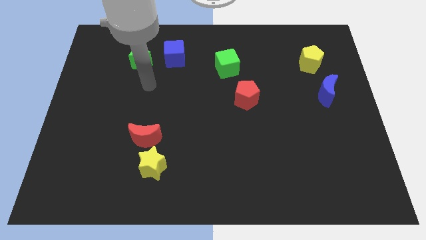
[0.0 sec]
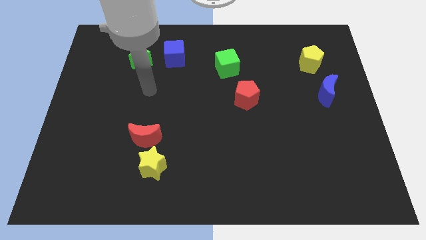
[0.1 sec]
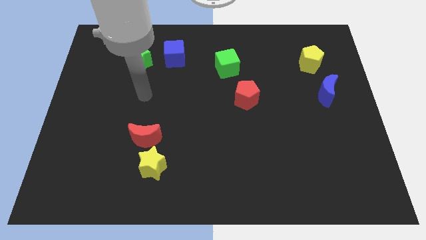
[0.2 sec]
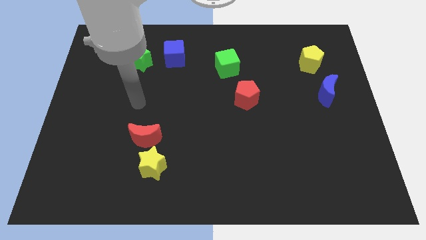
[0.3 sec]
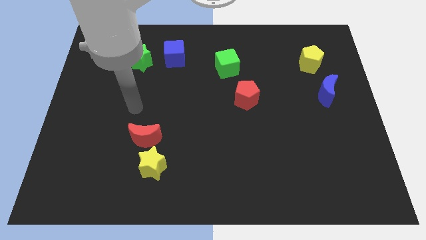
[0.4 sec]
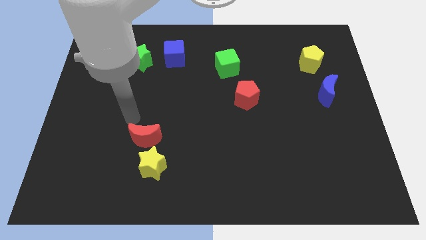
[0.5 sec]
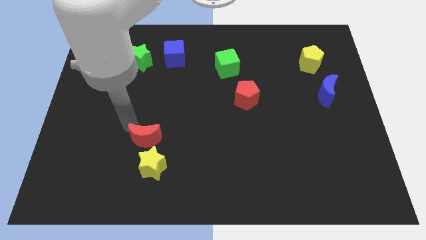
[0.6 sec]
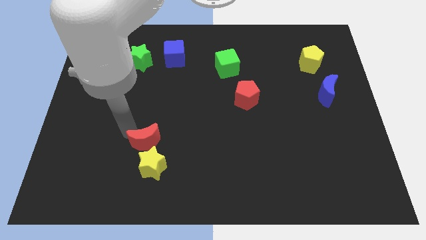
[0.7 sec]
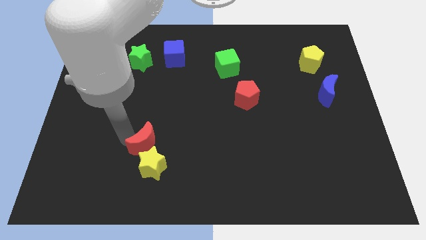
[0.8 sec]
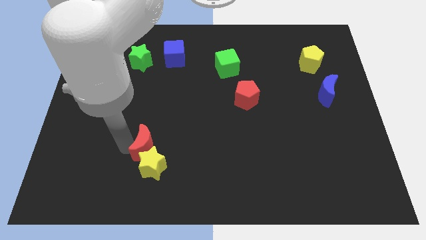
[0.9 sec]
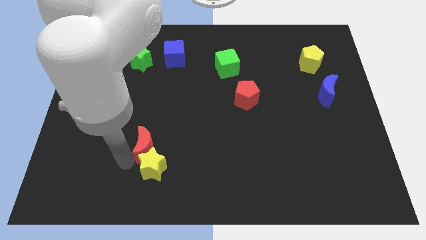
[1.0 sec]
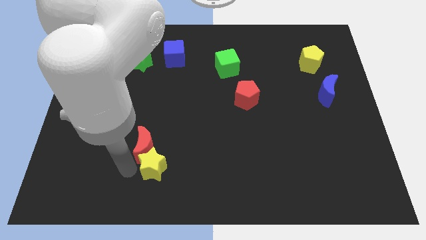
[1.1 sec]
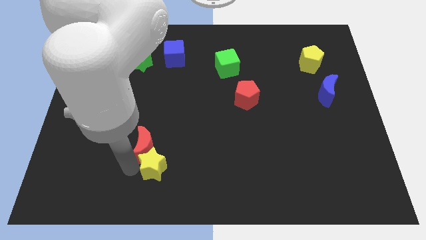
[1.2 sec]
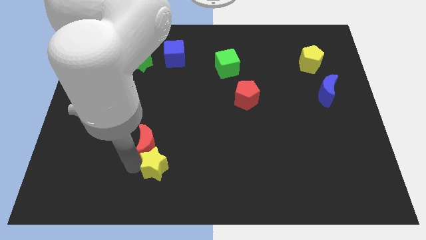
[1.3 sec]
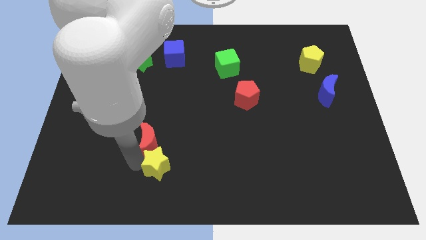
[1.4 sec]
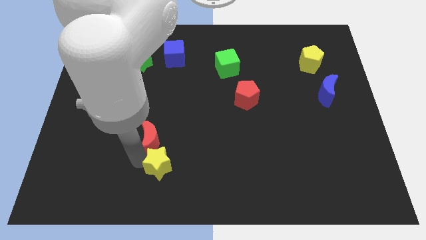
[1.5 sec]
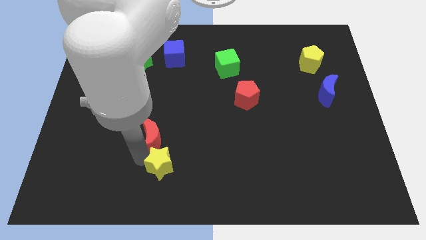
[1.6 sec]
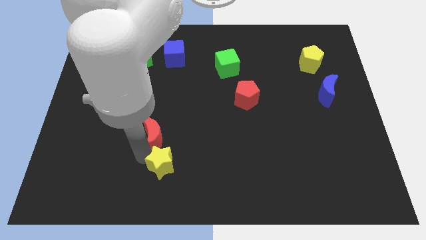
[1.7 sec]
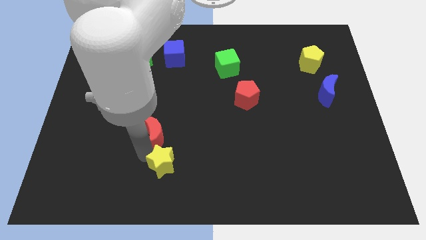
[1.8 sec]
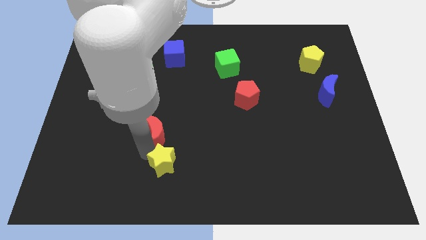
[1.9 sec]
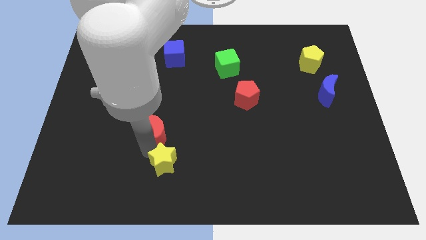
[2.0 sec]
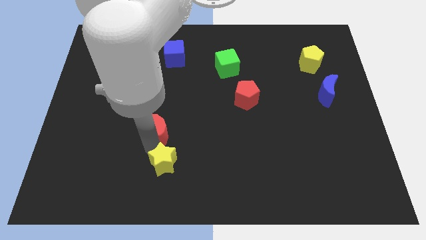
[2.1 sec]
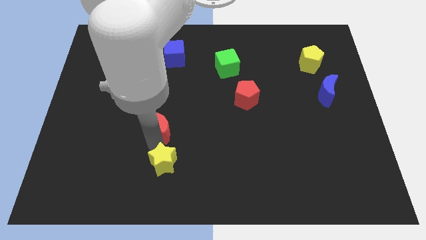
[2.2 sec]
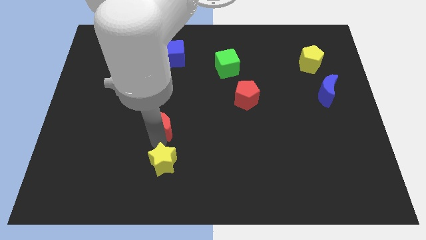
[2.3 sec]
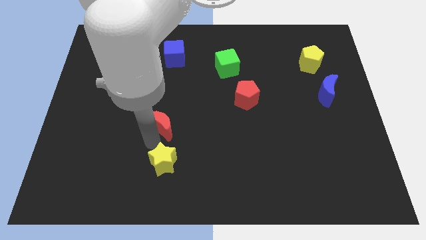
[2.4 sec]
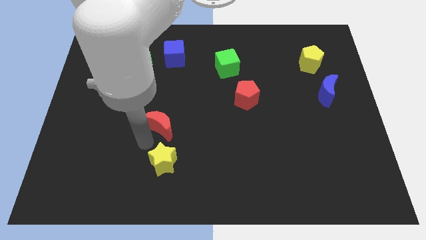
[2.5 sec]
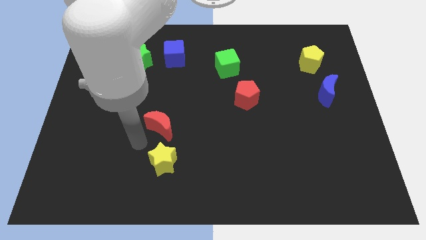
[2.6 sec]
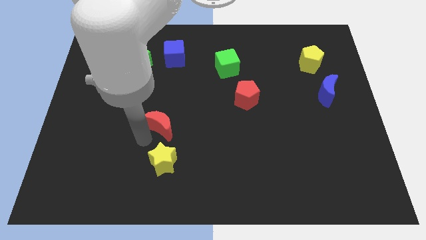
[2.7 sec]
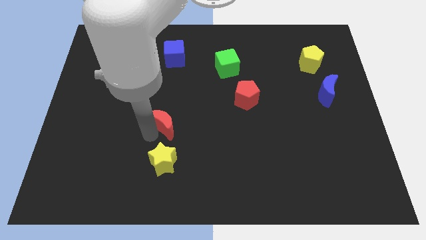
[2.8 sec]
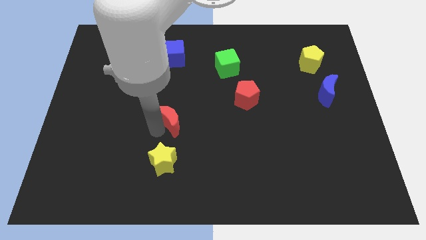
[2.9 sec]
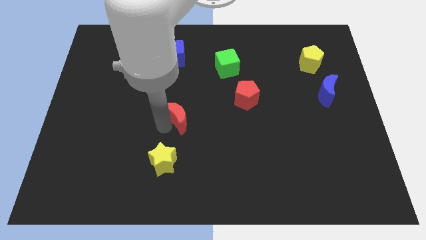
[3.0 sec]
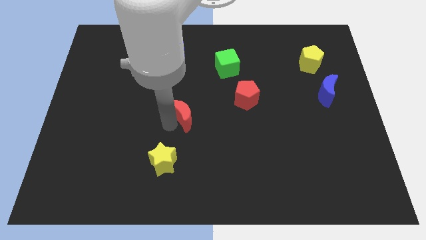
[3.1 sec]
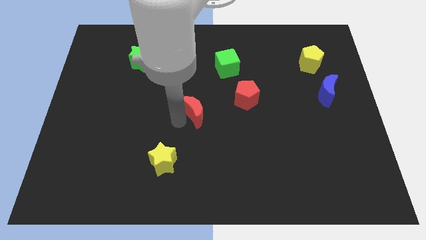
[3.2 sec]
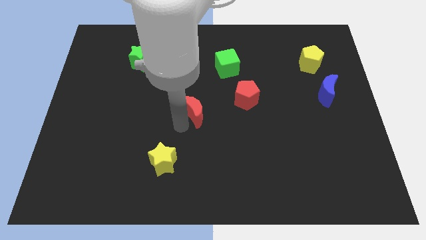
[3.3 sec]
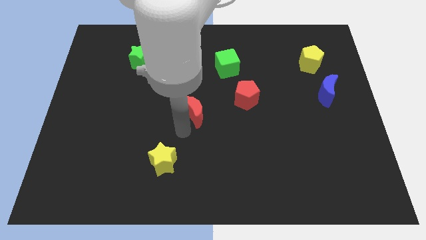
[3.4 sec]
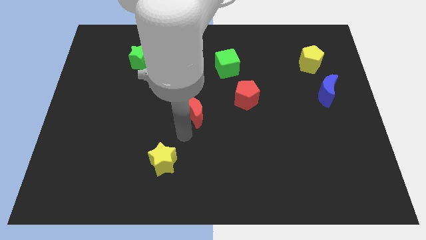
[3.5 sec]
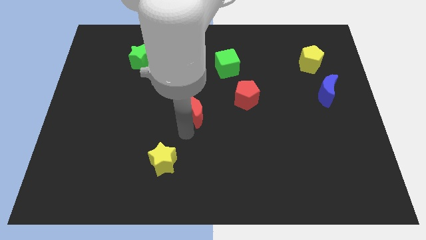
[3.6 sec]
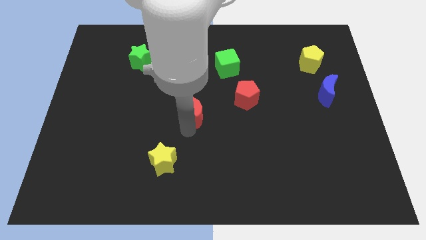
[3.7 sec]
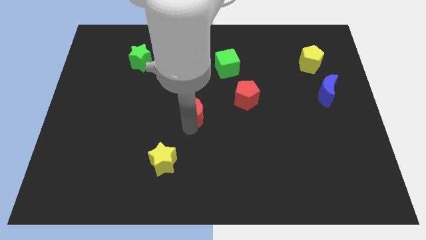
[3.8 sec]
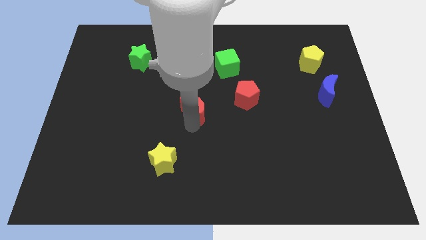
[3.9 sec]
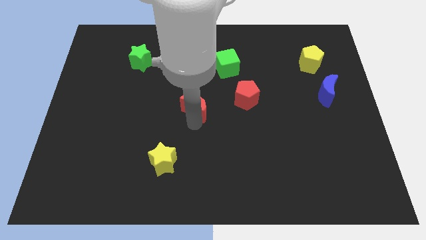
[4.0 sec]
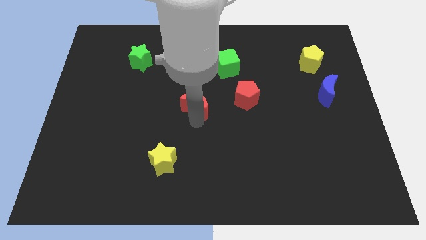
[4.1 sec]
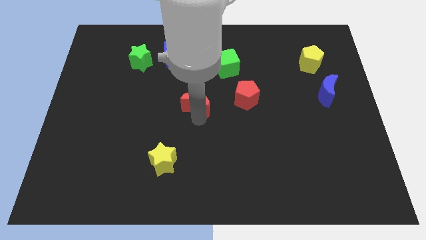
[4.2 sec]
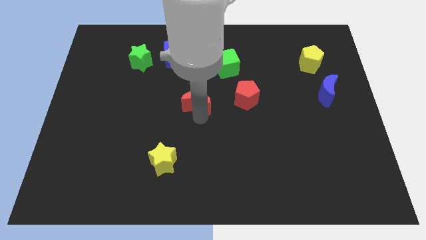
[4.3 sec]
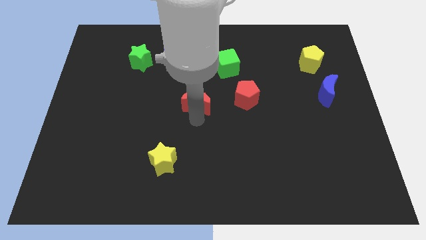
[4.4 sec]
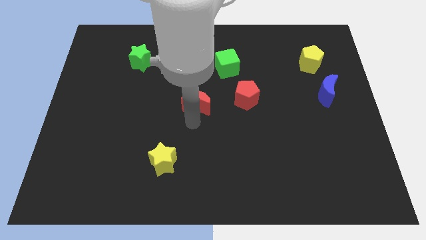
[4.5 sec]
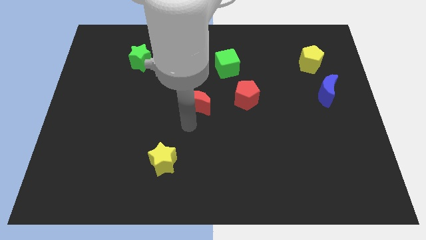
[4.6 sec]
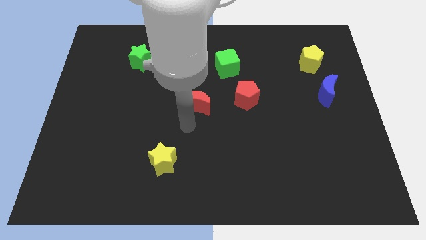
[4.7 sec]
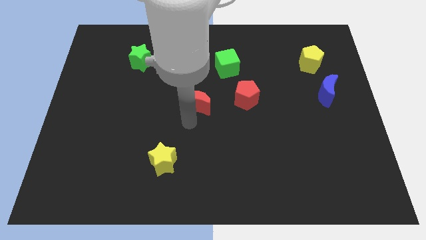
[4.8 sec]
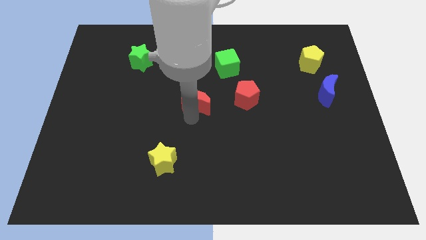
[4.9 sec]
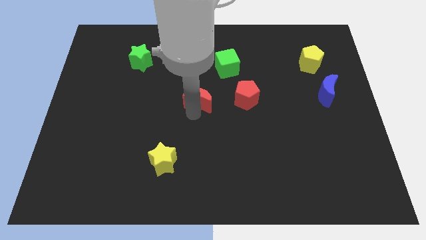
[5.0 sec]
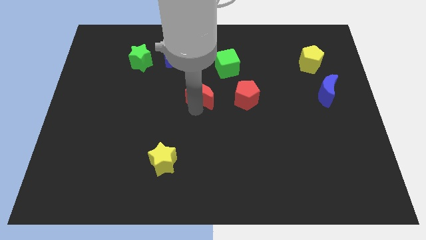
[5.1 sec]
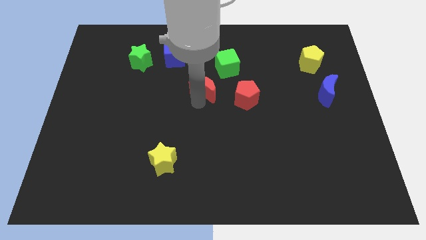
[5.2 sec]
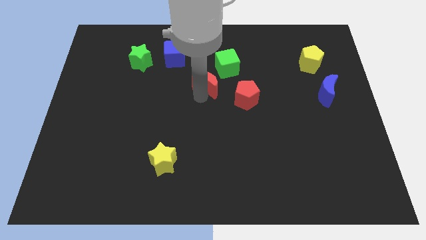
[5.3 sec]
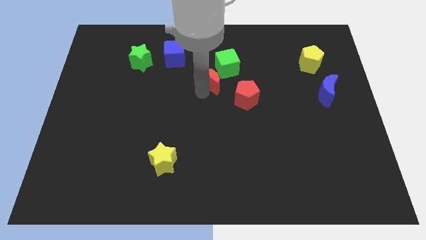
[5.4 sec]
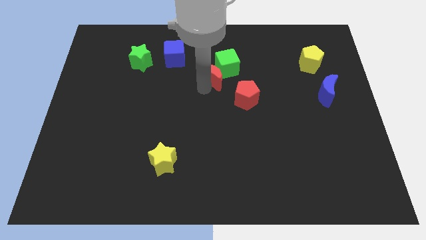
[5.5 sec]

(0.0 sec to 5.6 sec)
slide the red moon close to the green cube

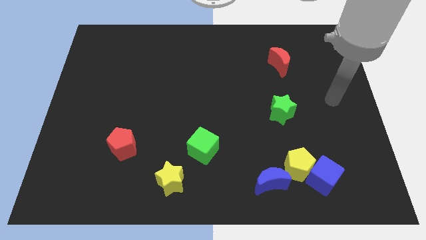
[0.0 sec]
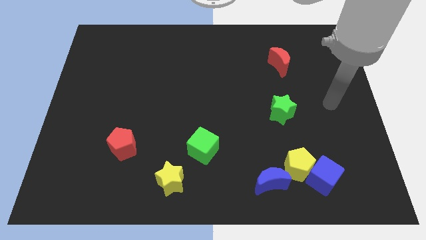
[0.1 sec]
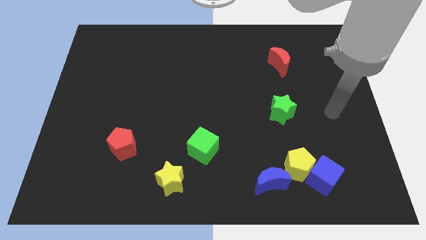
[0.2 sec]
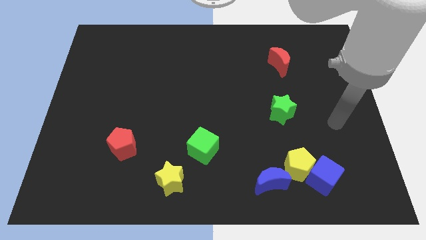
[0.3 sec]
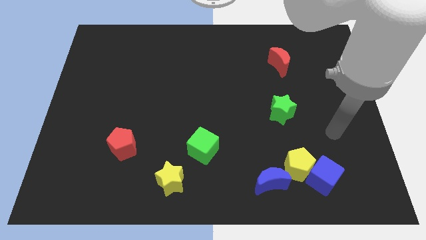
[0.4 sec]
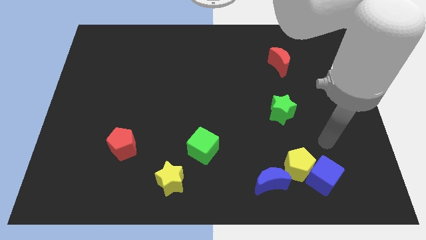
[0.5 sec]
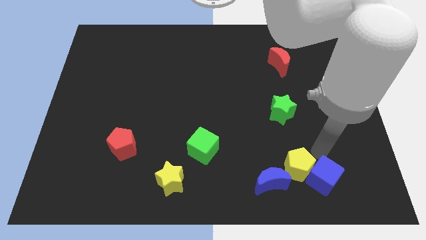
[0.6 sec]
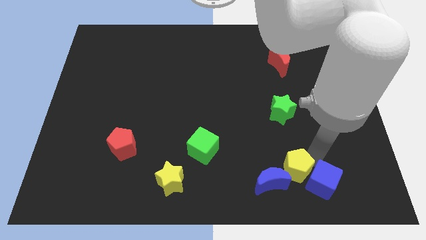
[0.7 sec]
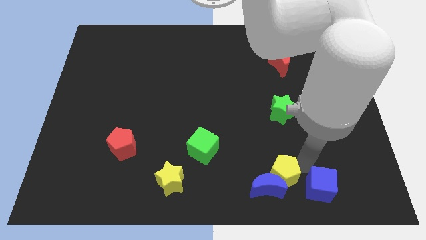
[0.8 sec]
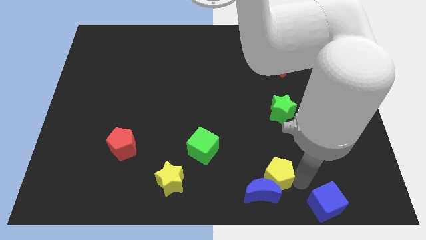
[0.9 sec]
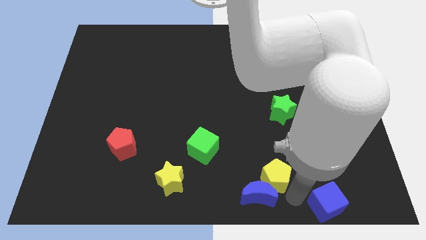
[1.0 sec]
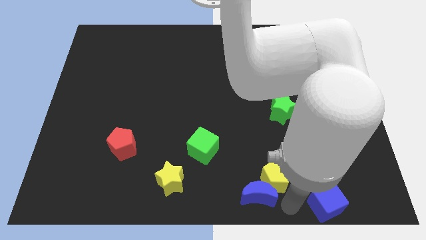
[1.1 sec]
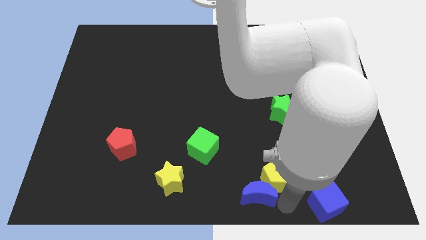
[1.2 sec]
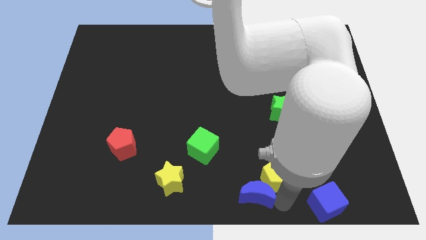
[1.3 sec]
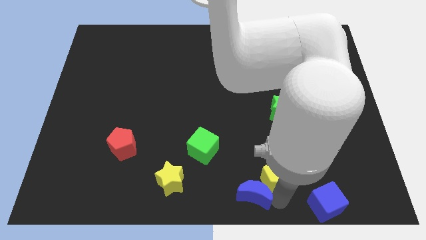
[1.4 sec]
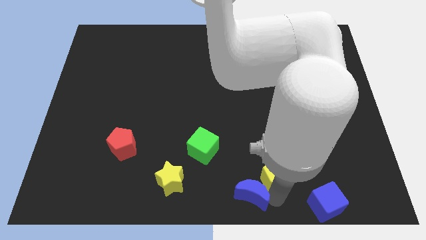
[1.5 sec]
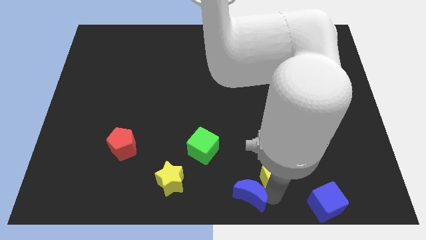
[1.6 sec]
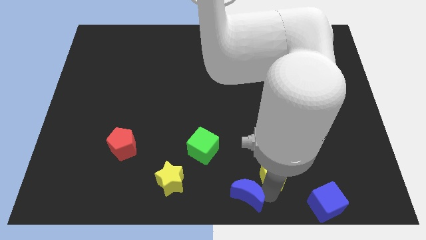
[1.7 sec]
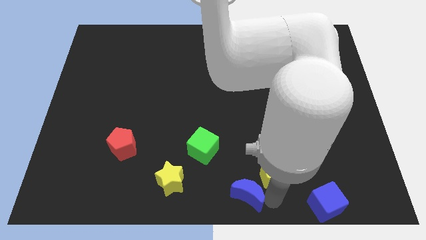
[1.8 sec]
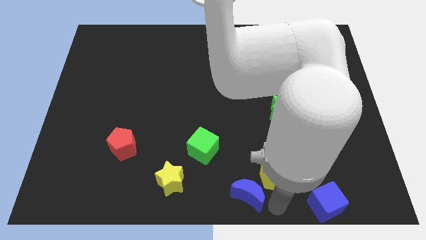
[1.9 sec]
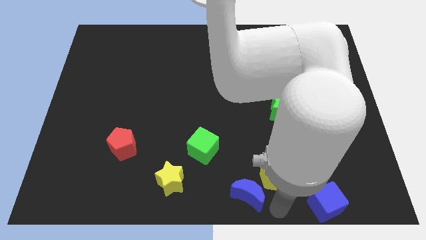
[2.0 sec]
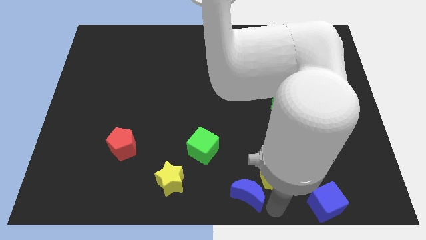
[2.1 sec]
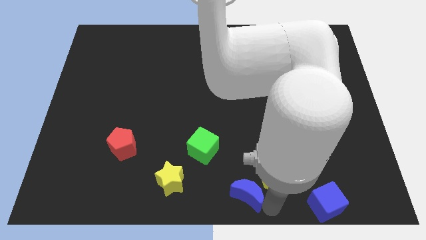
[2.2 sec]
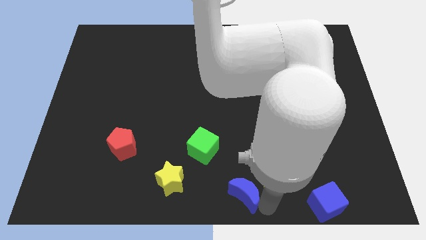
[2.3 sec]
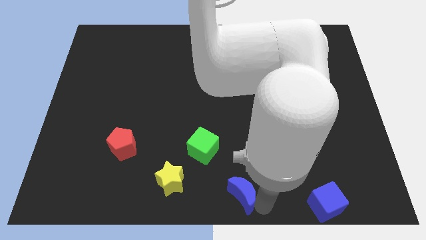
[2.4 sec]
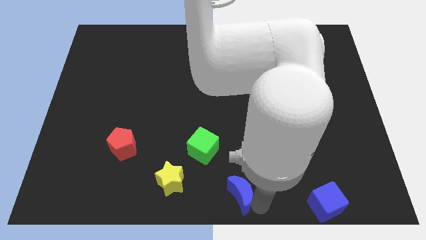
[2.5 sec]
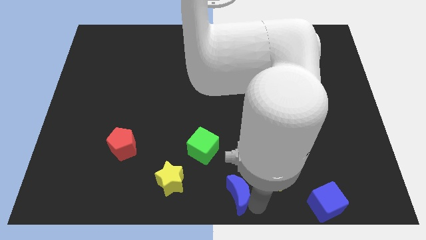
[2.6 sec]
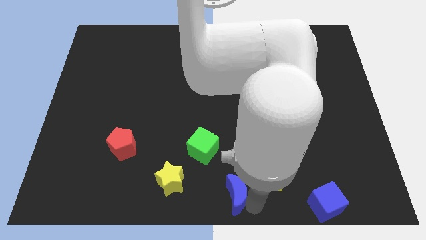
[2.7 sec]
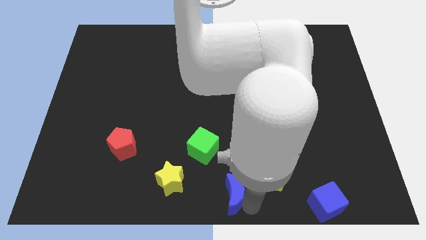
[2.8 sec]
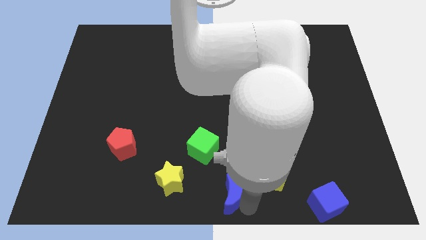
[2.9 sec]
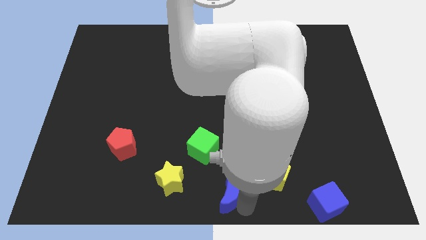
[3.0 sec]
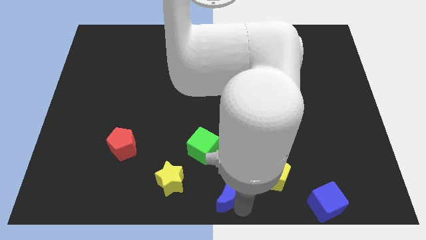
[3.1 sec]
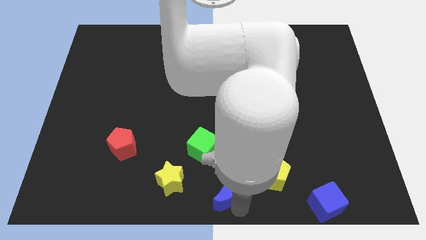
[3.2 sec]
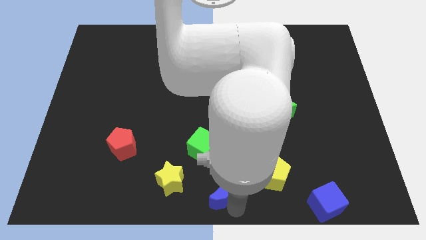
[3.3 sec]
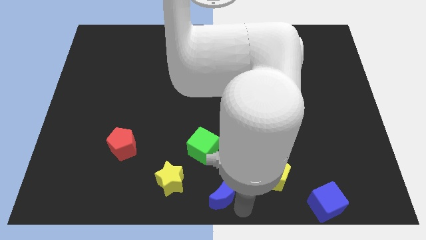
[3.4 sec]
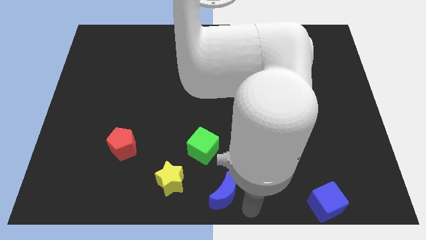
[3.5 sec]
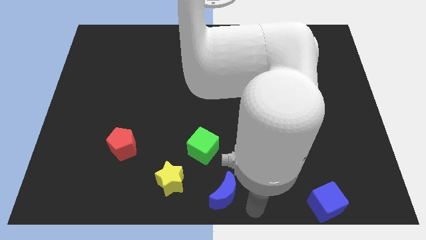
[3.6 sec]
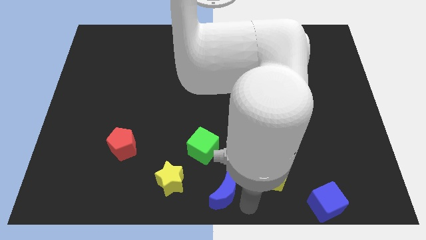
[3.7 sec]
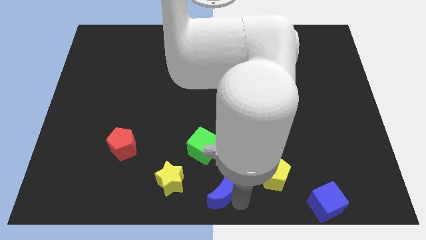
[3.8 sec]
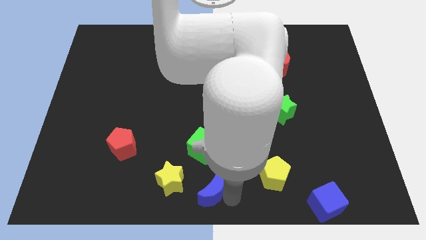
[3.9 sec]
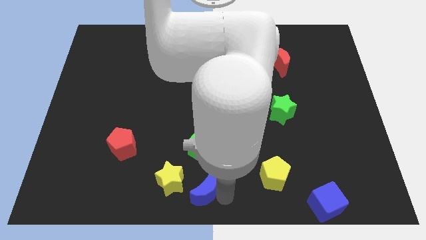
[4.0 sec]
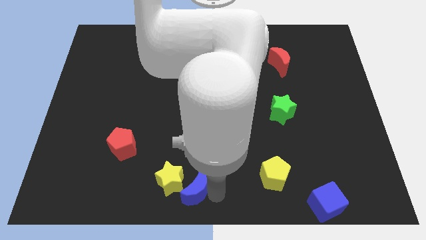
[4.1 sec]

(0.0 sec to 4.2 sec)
move the blue moon next to the yellow star
